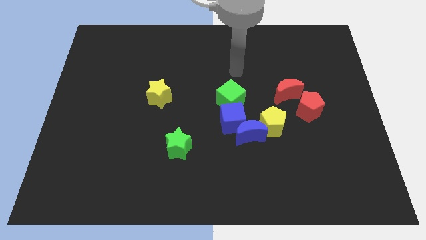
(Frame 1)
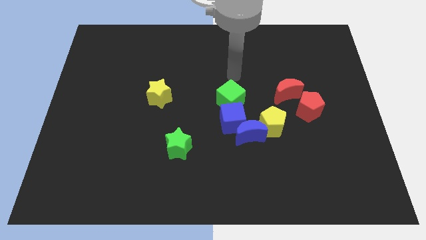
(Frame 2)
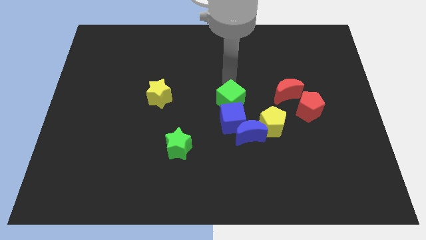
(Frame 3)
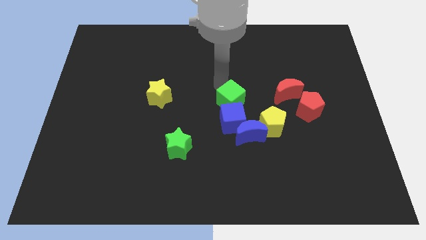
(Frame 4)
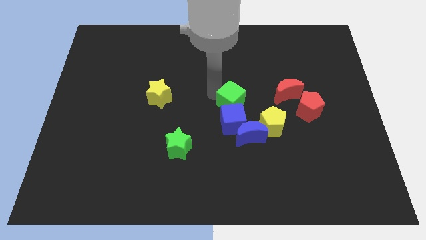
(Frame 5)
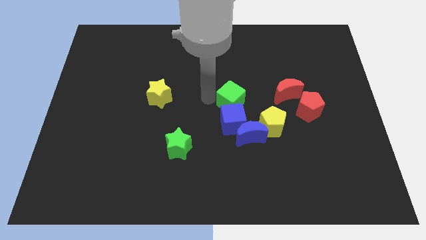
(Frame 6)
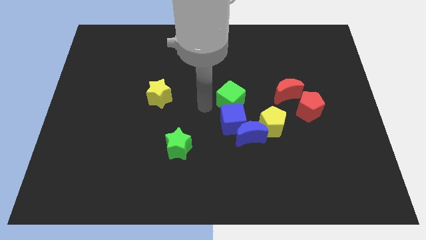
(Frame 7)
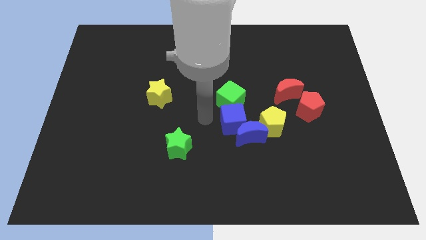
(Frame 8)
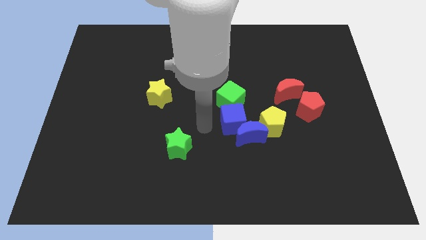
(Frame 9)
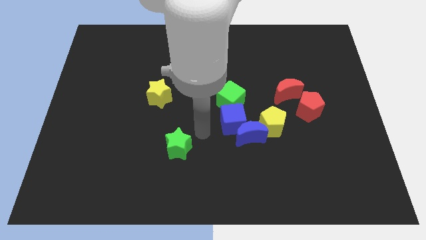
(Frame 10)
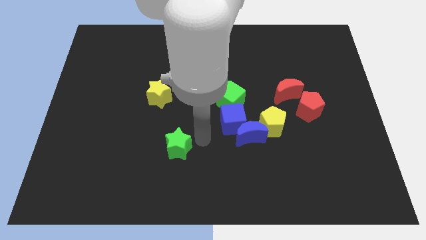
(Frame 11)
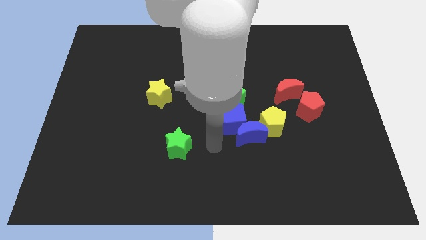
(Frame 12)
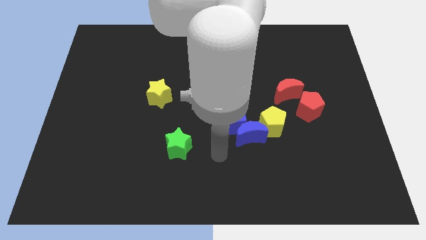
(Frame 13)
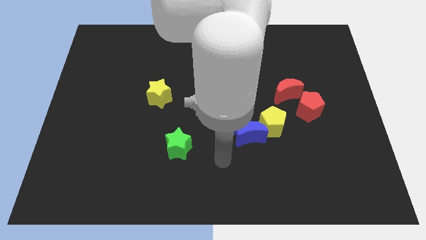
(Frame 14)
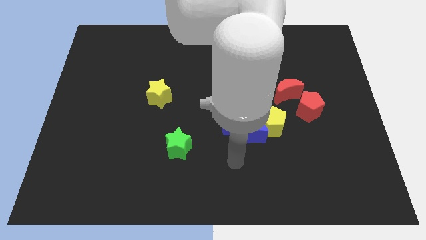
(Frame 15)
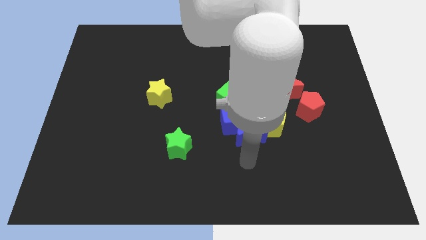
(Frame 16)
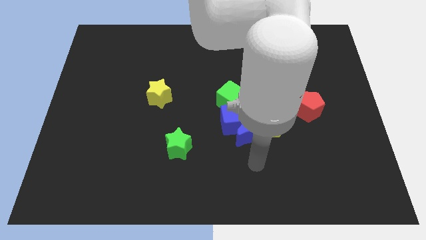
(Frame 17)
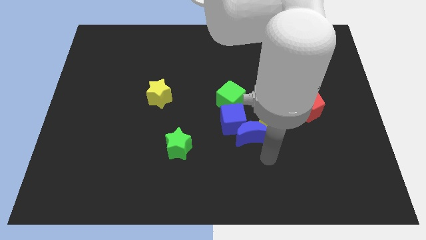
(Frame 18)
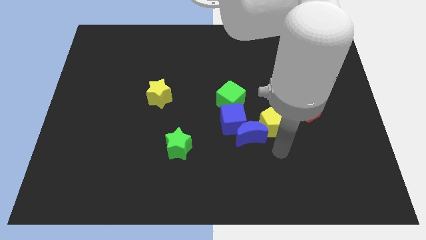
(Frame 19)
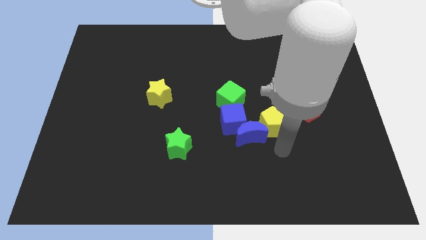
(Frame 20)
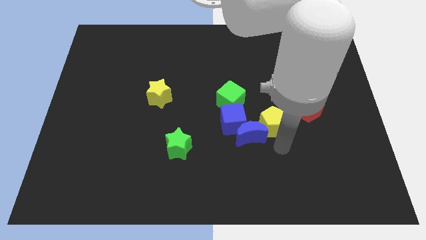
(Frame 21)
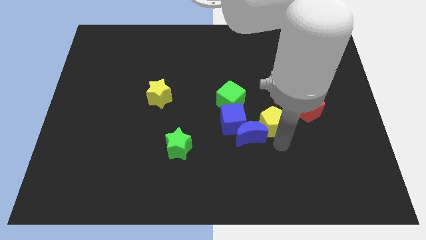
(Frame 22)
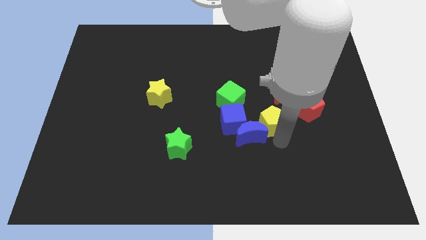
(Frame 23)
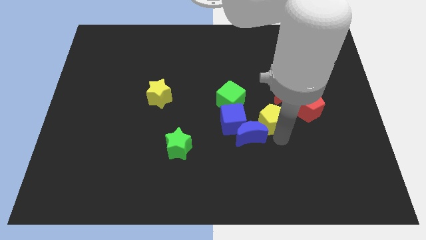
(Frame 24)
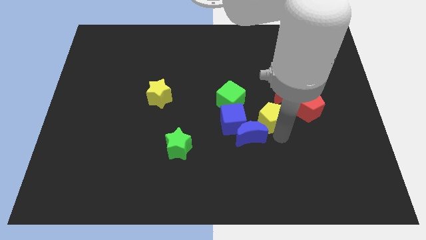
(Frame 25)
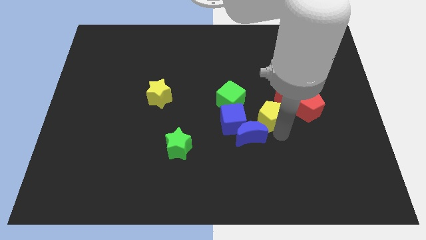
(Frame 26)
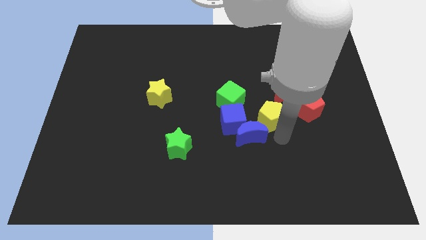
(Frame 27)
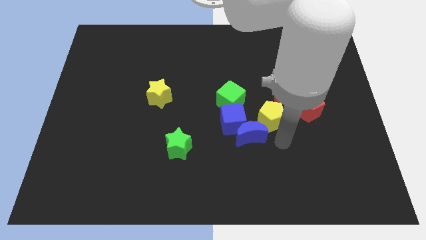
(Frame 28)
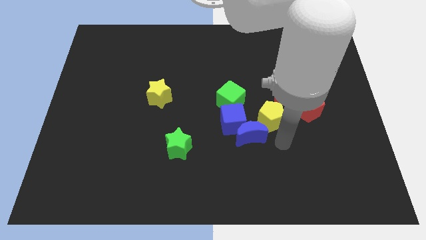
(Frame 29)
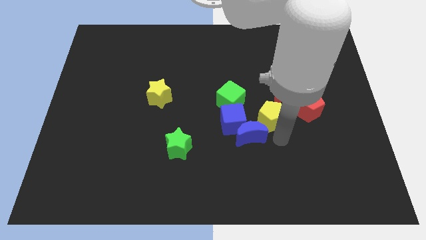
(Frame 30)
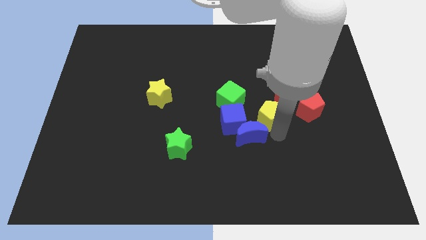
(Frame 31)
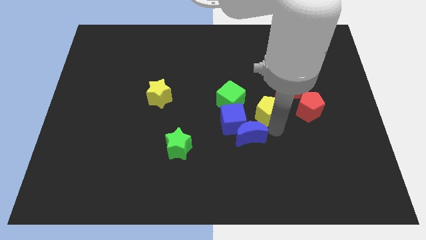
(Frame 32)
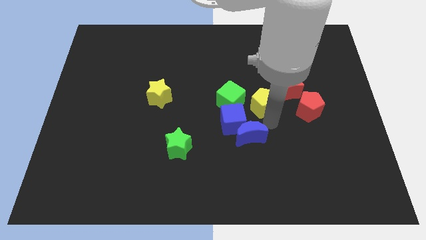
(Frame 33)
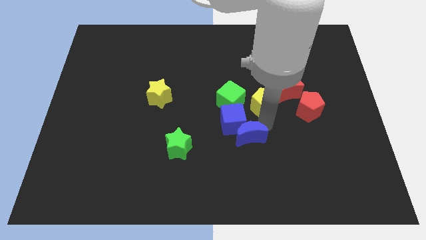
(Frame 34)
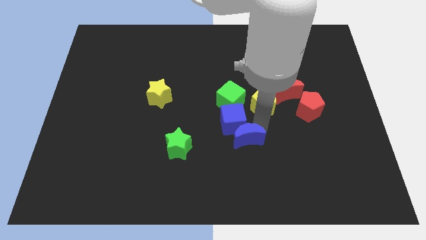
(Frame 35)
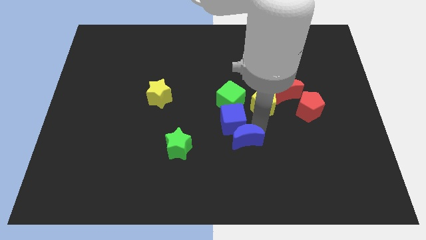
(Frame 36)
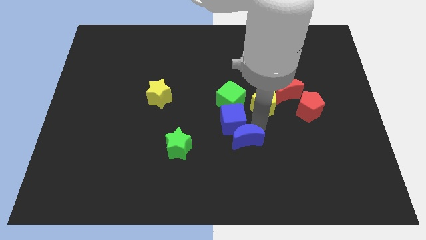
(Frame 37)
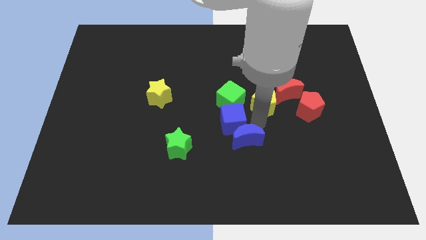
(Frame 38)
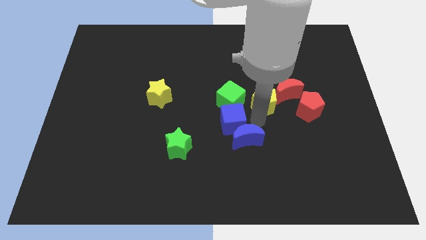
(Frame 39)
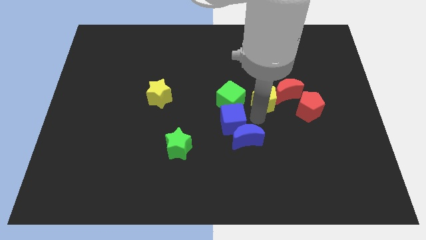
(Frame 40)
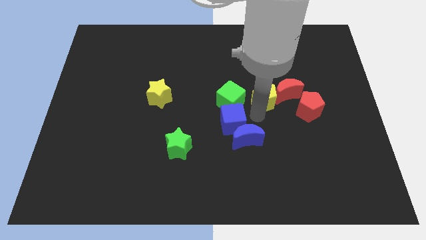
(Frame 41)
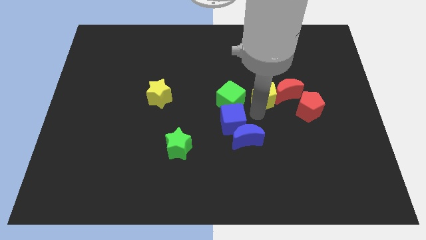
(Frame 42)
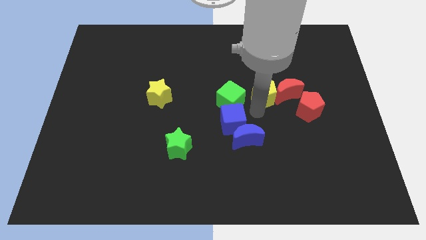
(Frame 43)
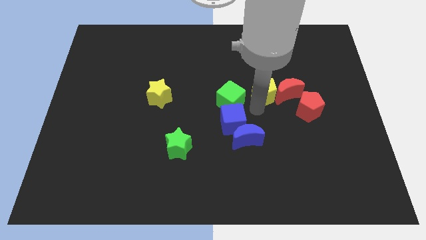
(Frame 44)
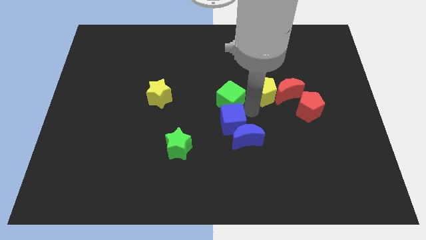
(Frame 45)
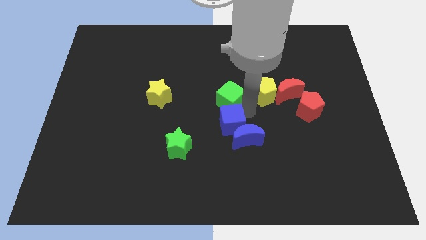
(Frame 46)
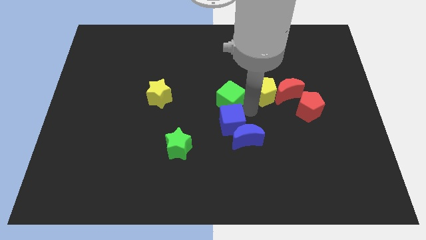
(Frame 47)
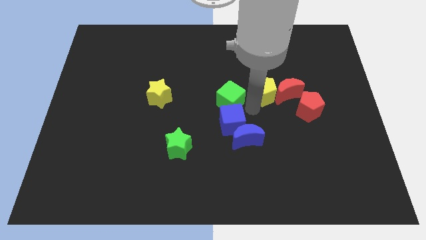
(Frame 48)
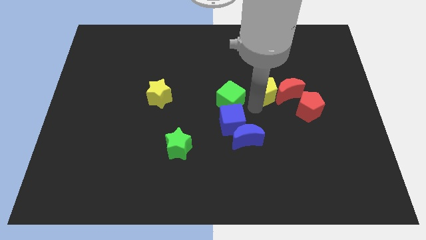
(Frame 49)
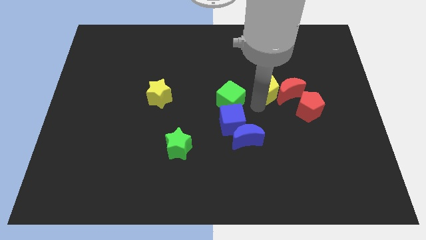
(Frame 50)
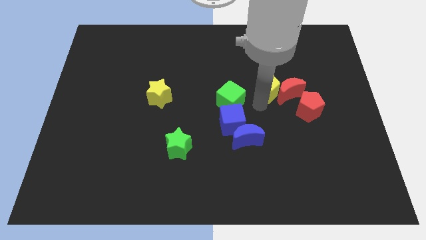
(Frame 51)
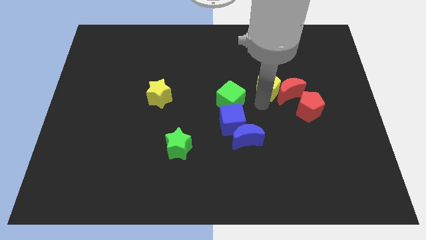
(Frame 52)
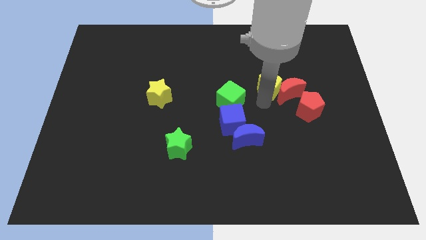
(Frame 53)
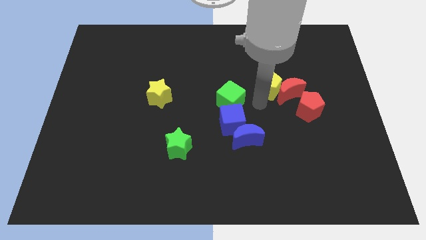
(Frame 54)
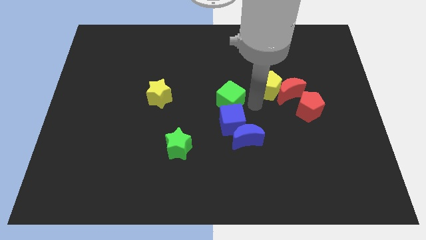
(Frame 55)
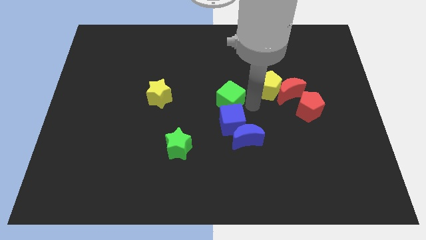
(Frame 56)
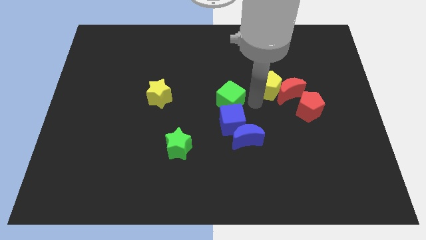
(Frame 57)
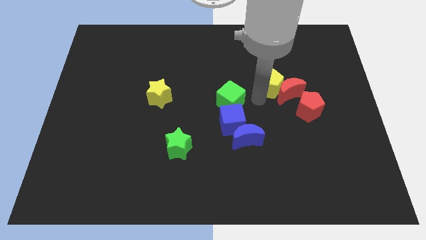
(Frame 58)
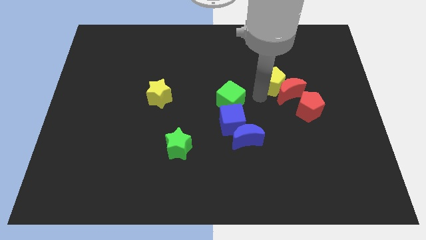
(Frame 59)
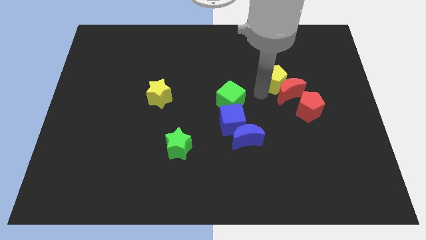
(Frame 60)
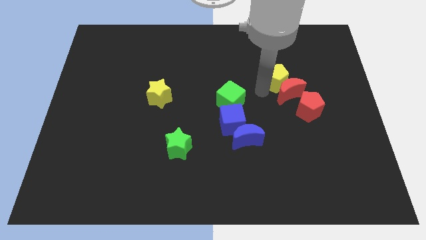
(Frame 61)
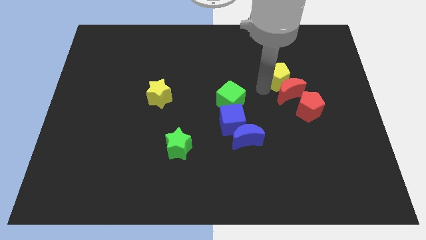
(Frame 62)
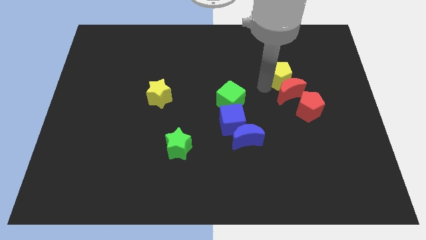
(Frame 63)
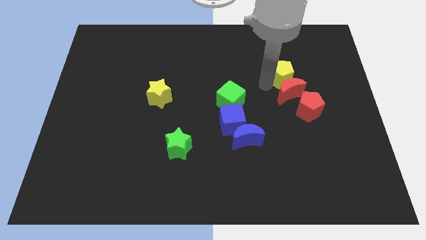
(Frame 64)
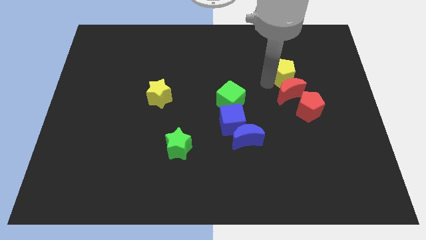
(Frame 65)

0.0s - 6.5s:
push the yellow pentagon above the red pentagon

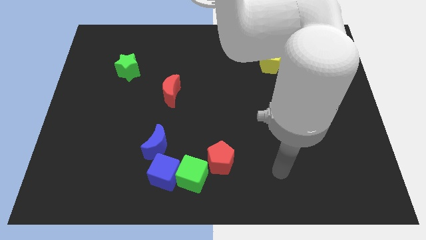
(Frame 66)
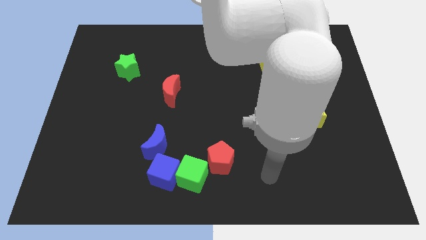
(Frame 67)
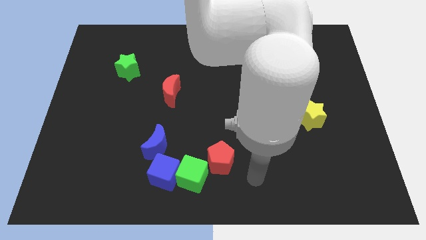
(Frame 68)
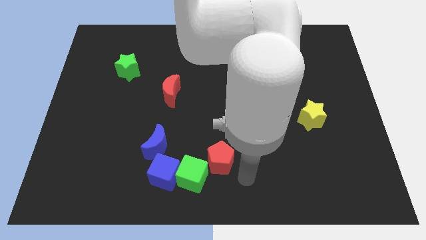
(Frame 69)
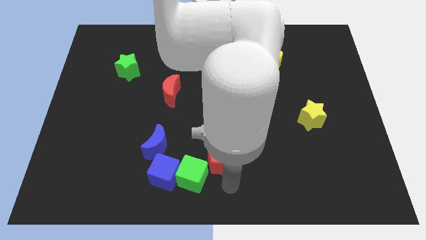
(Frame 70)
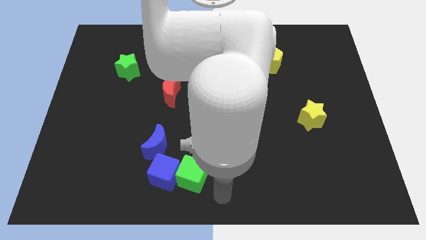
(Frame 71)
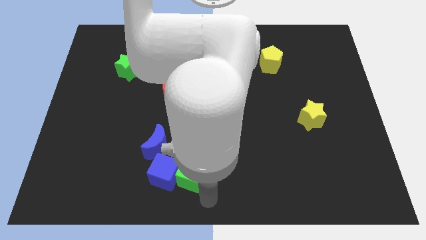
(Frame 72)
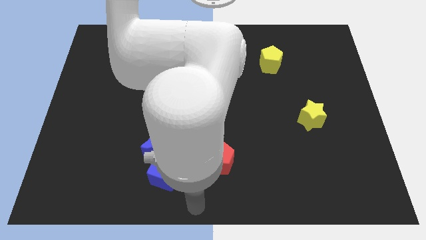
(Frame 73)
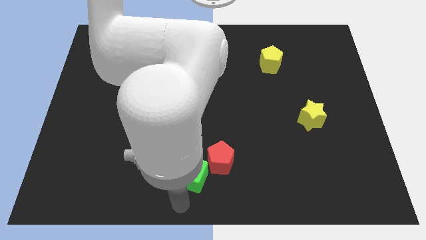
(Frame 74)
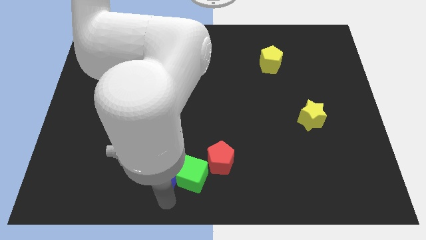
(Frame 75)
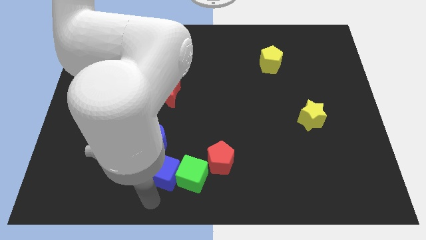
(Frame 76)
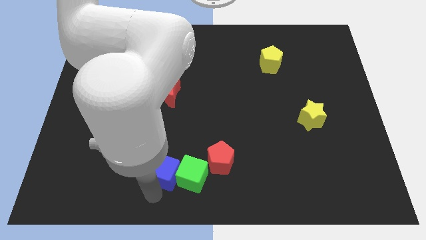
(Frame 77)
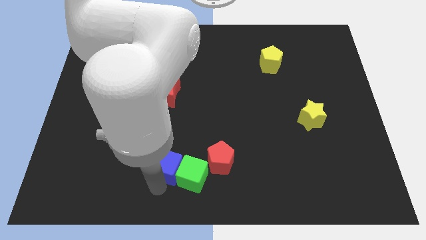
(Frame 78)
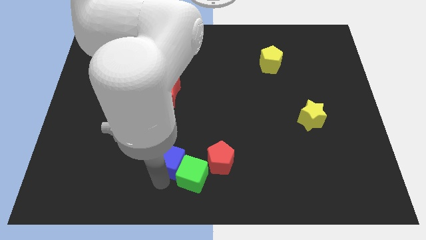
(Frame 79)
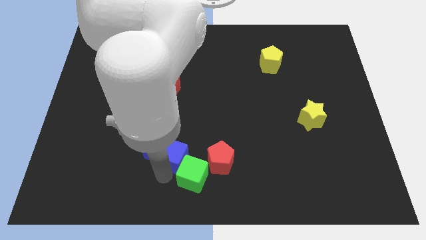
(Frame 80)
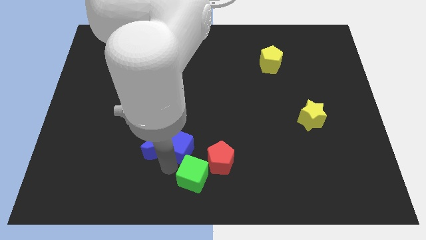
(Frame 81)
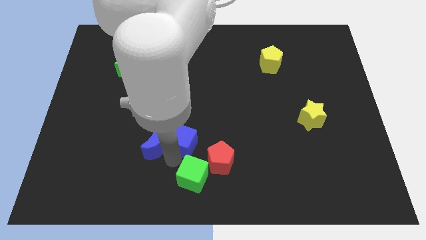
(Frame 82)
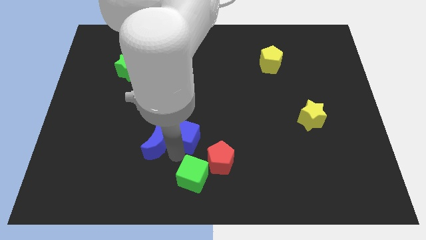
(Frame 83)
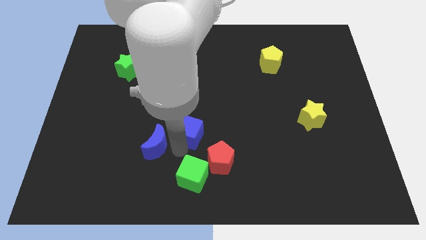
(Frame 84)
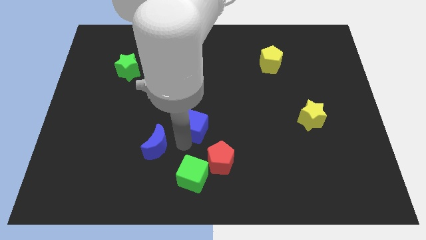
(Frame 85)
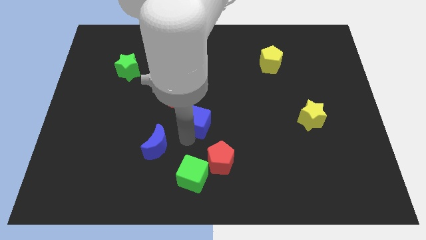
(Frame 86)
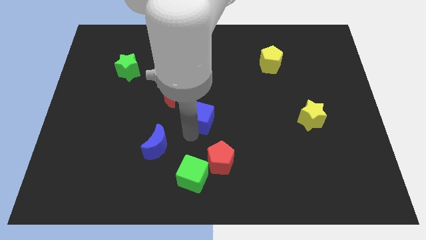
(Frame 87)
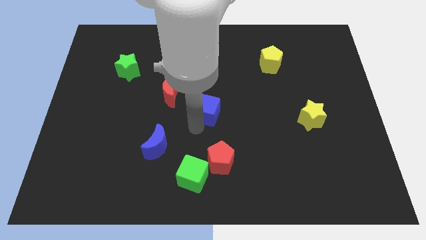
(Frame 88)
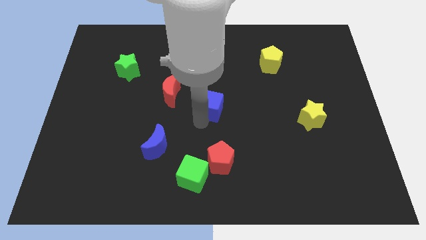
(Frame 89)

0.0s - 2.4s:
move the blue cube right of the red moon
